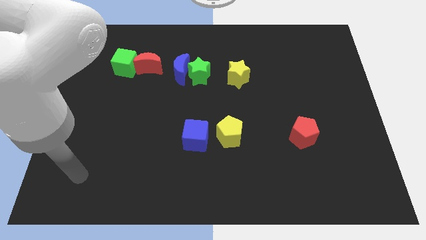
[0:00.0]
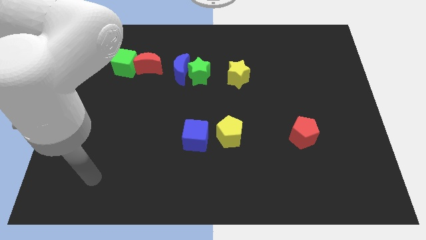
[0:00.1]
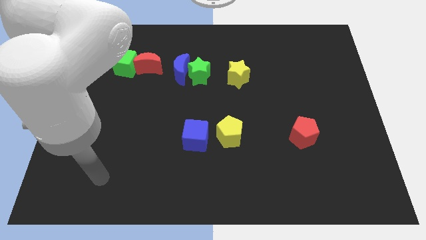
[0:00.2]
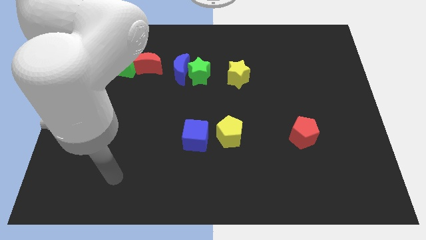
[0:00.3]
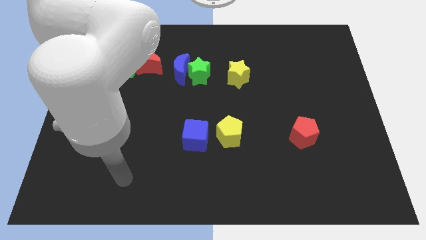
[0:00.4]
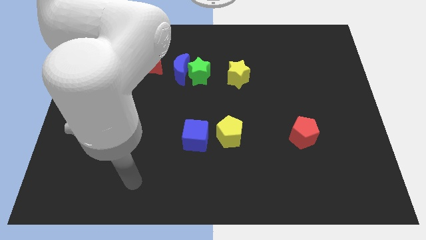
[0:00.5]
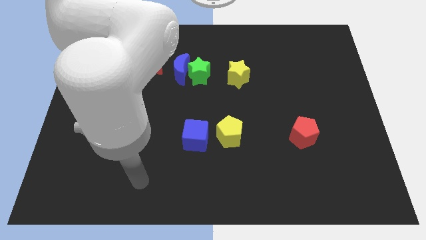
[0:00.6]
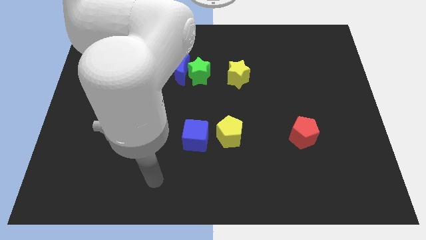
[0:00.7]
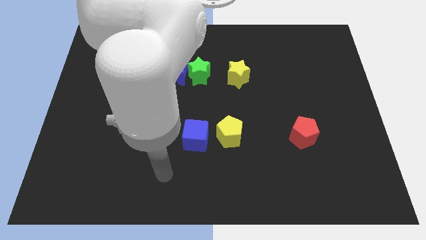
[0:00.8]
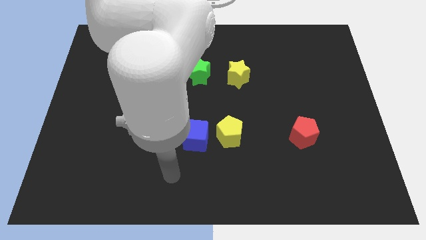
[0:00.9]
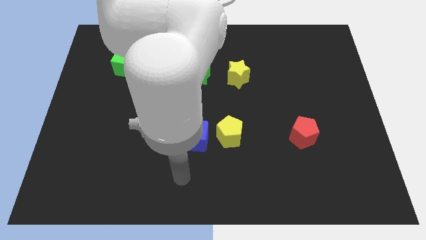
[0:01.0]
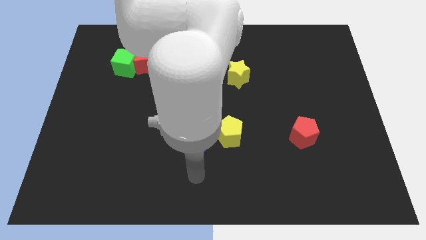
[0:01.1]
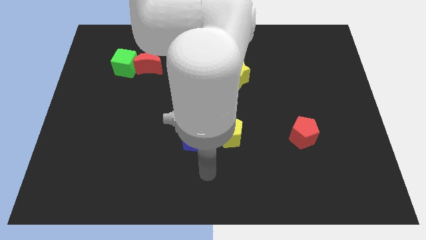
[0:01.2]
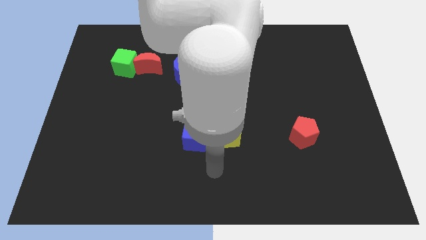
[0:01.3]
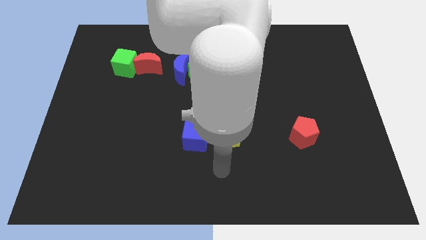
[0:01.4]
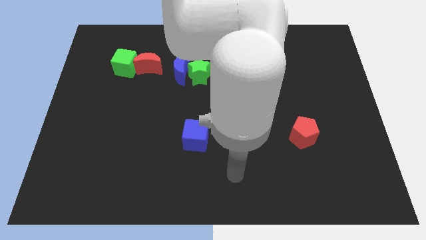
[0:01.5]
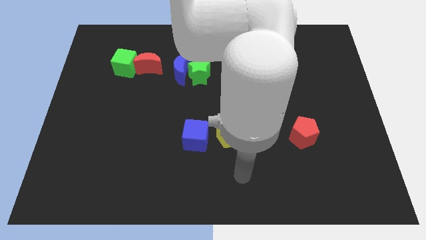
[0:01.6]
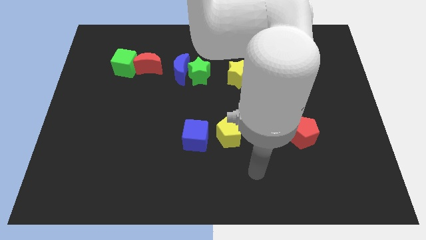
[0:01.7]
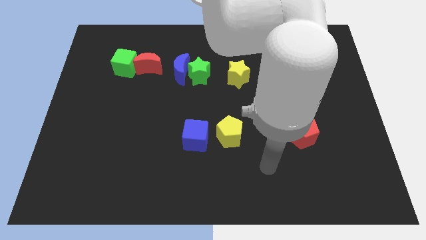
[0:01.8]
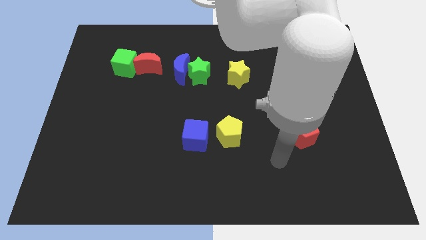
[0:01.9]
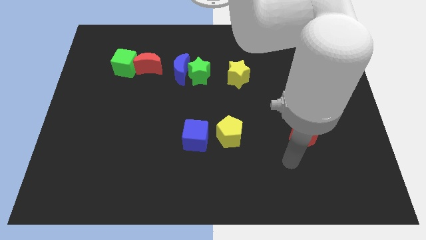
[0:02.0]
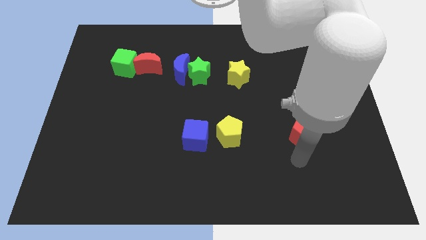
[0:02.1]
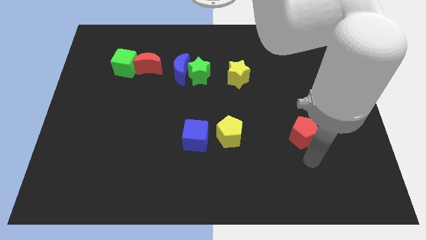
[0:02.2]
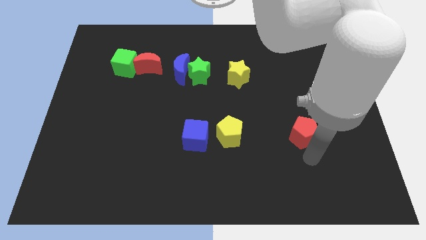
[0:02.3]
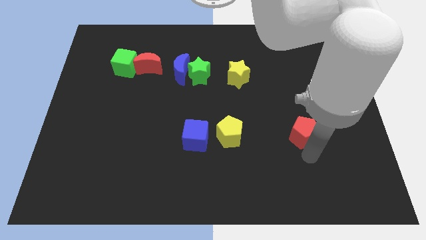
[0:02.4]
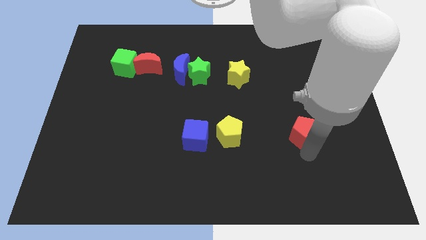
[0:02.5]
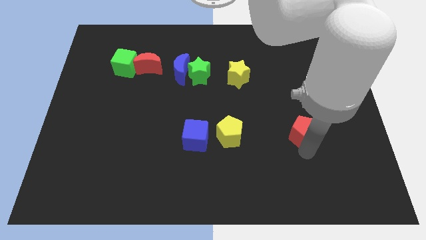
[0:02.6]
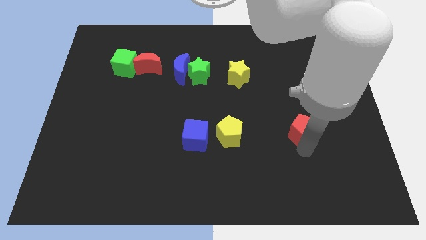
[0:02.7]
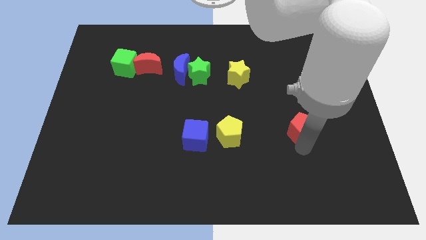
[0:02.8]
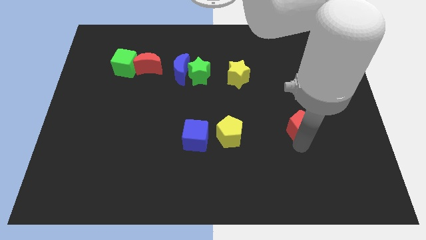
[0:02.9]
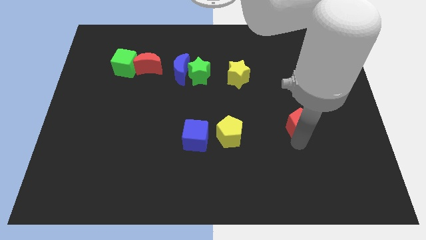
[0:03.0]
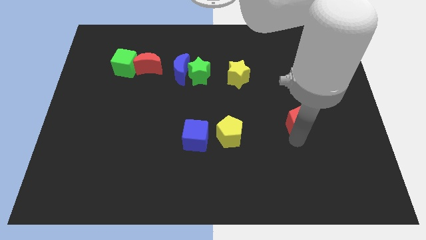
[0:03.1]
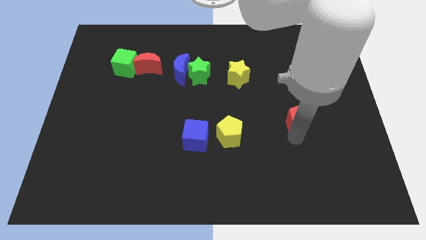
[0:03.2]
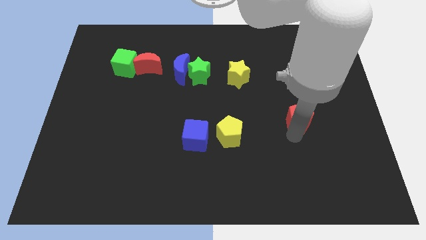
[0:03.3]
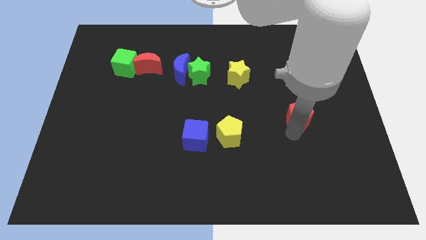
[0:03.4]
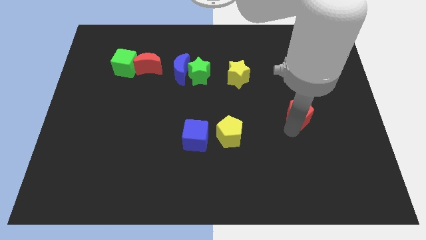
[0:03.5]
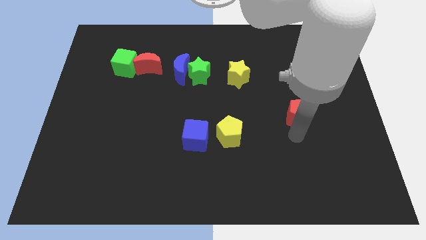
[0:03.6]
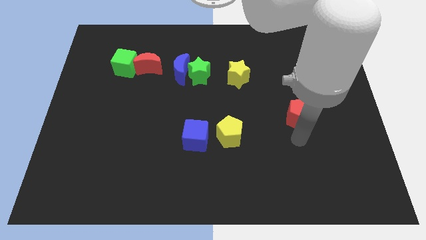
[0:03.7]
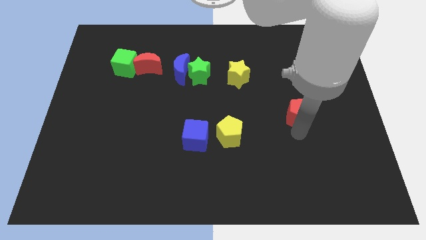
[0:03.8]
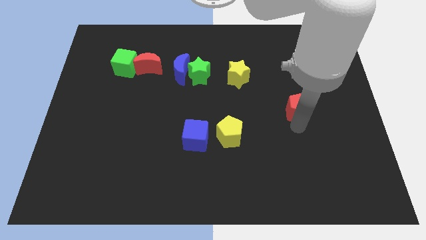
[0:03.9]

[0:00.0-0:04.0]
move the red pentagon a bit upwards

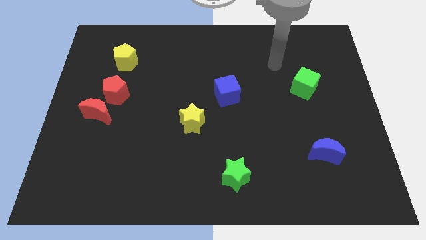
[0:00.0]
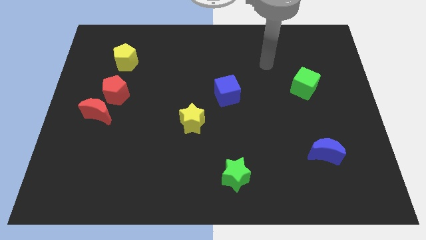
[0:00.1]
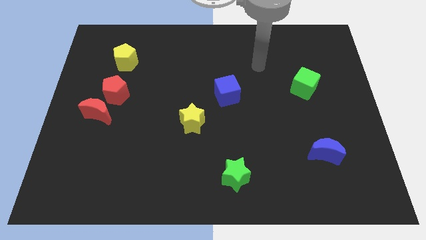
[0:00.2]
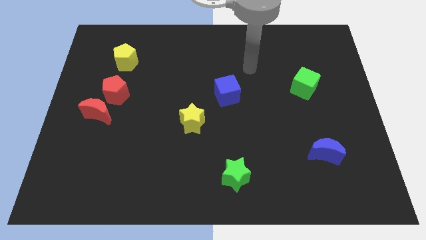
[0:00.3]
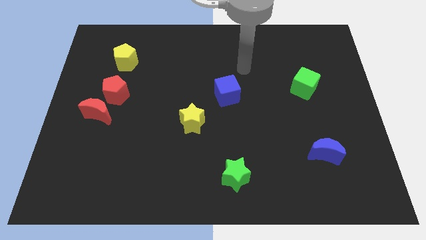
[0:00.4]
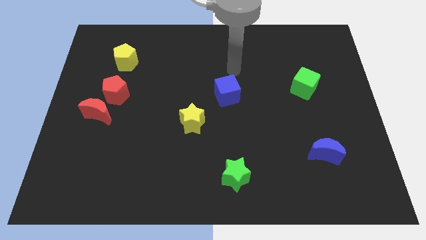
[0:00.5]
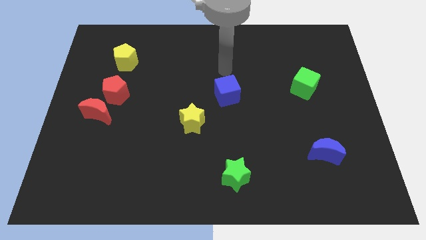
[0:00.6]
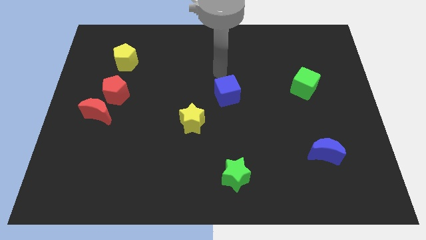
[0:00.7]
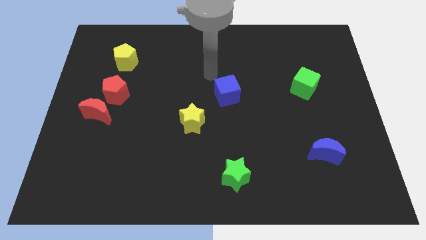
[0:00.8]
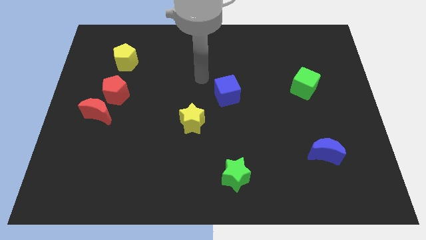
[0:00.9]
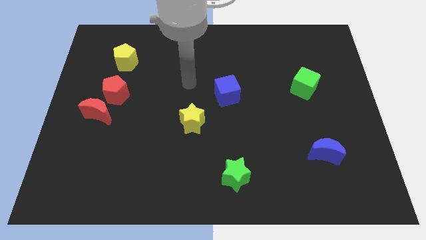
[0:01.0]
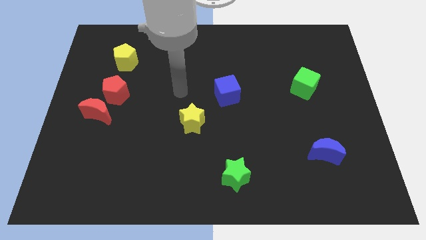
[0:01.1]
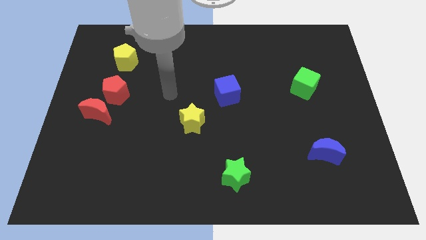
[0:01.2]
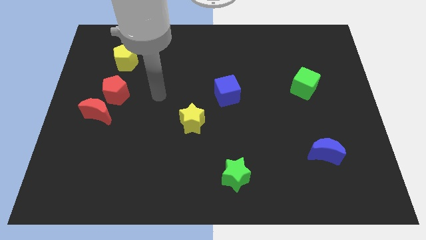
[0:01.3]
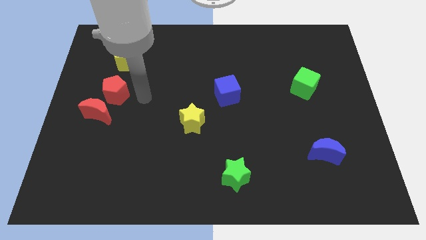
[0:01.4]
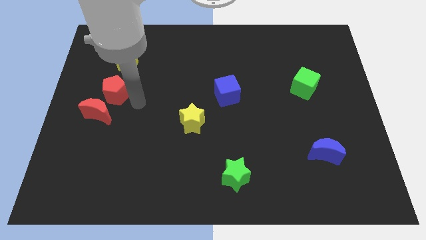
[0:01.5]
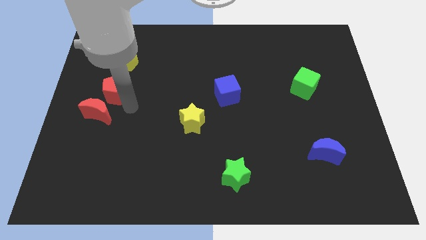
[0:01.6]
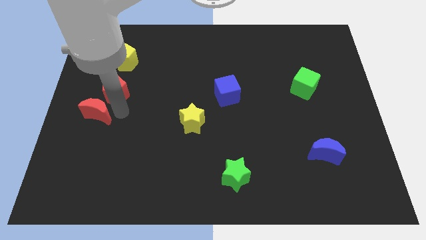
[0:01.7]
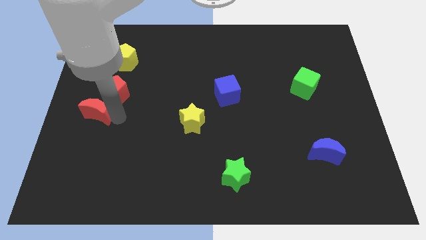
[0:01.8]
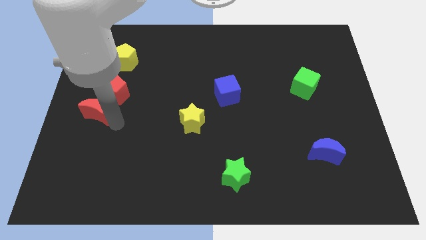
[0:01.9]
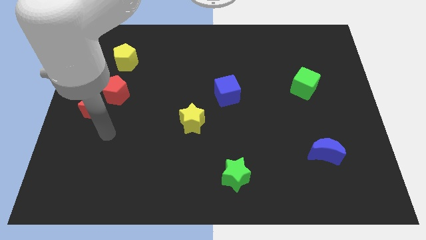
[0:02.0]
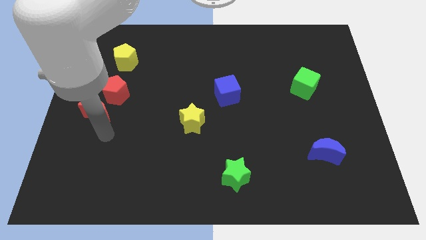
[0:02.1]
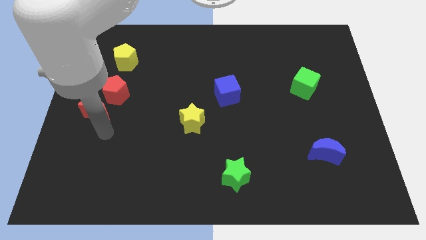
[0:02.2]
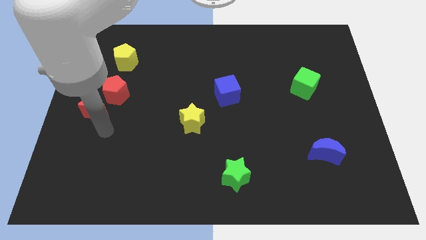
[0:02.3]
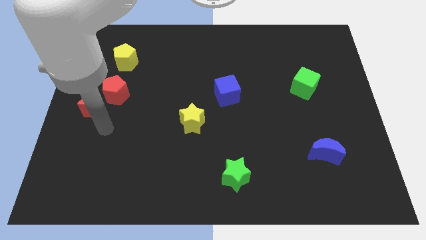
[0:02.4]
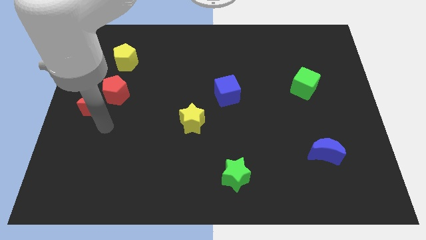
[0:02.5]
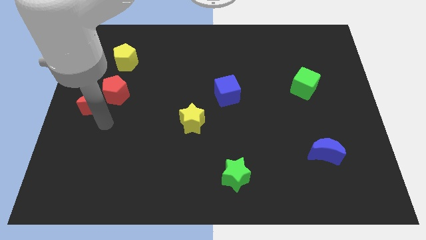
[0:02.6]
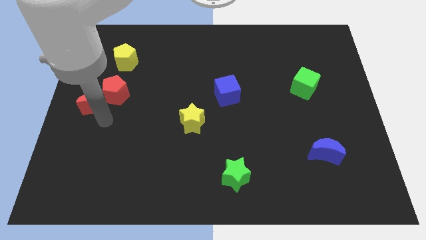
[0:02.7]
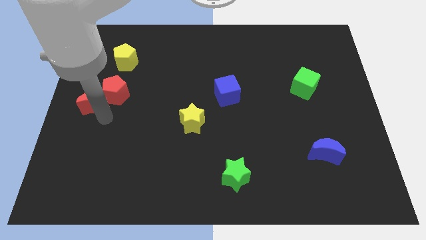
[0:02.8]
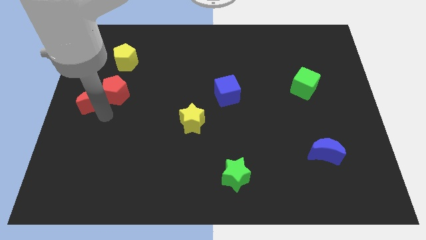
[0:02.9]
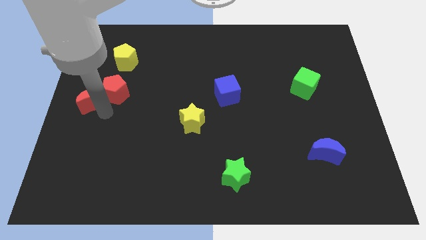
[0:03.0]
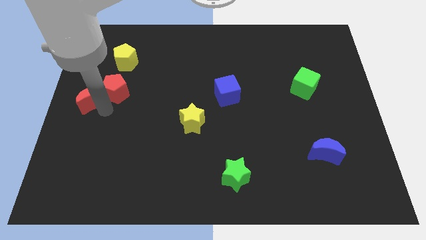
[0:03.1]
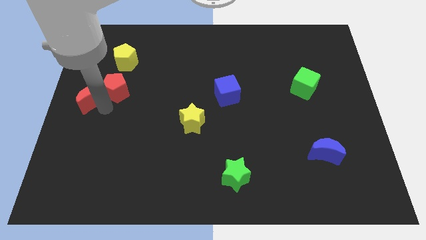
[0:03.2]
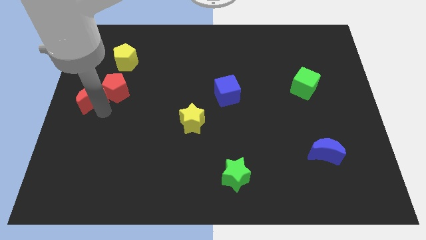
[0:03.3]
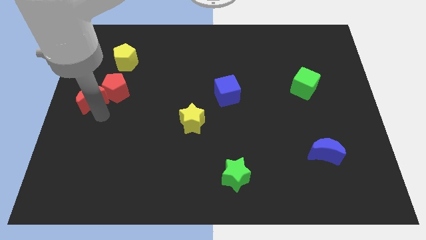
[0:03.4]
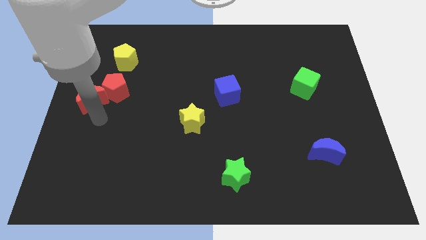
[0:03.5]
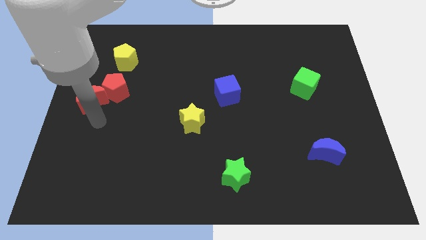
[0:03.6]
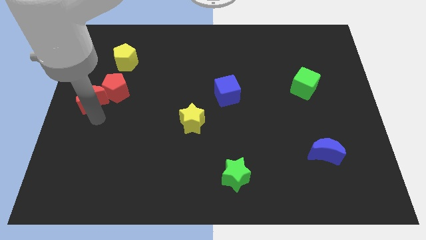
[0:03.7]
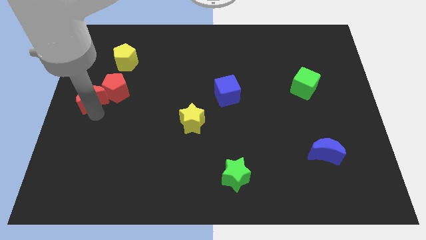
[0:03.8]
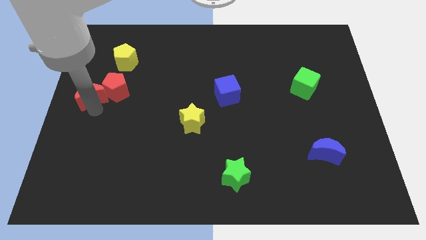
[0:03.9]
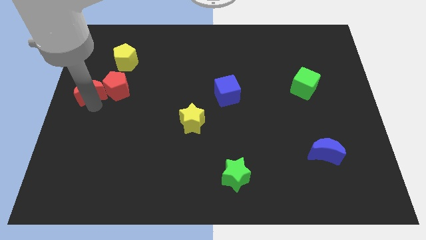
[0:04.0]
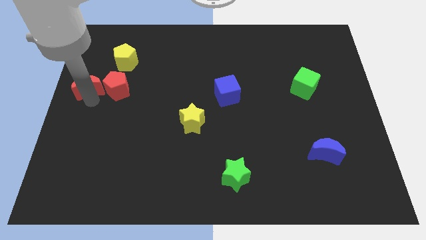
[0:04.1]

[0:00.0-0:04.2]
slide the red moon a bit upwards

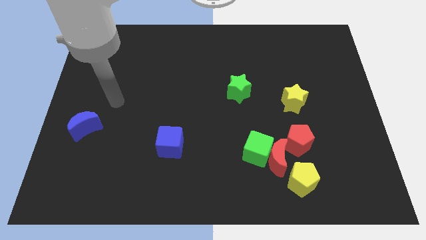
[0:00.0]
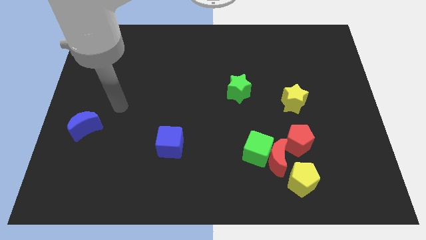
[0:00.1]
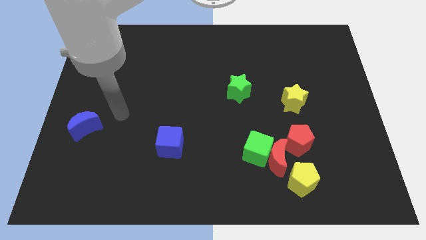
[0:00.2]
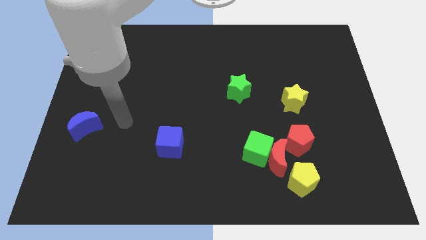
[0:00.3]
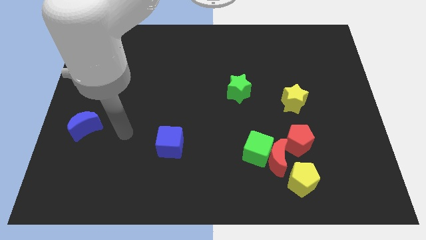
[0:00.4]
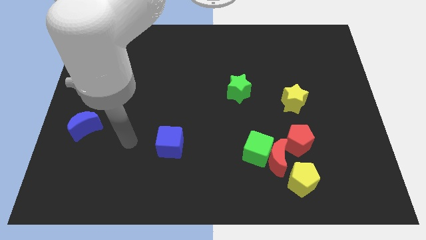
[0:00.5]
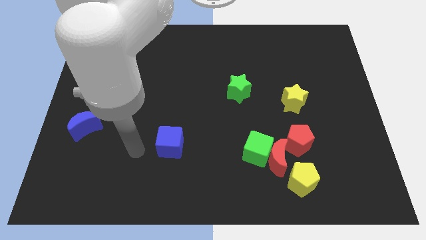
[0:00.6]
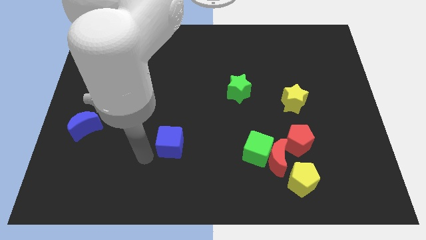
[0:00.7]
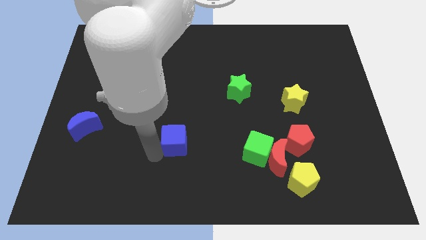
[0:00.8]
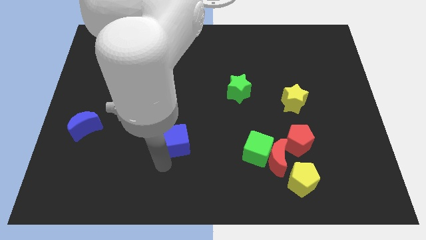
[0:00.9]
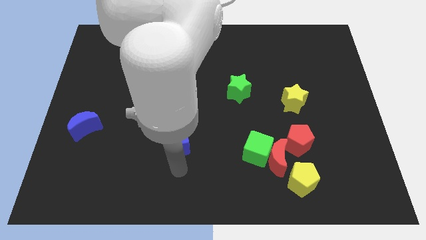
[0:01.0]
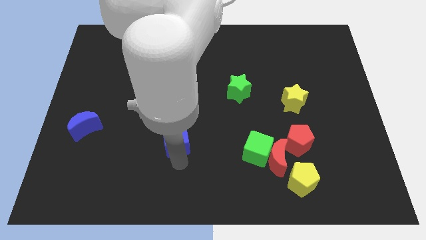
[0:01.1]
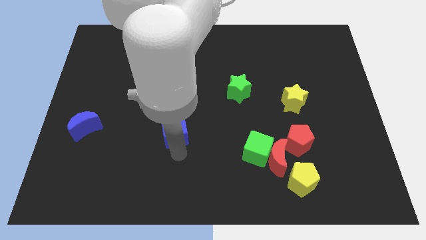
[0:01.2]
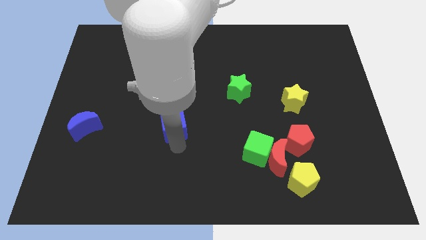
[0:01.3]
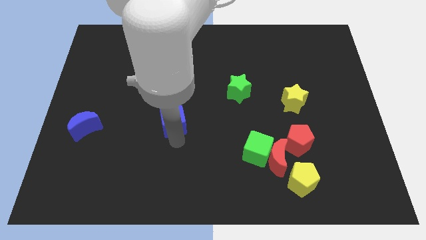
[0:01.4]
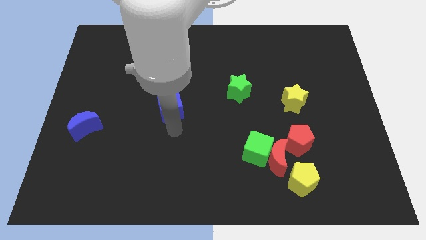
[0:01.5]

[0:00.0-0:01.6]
move the blue cube up a little bit
